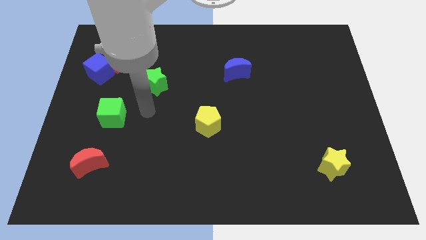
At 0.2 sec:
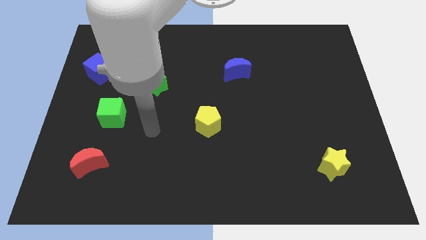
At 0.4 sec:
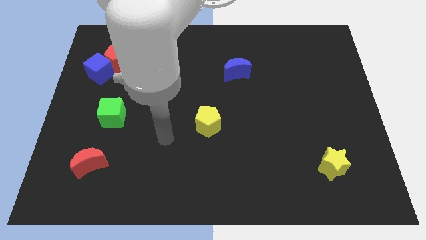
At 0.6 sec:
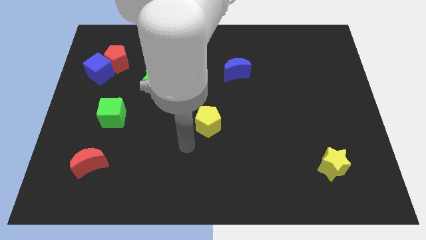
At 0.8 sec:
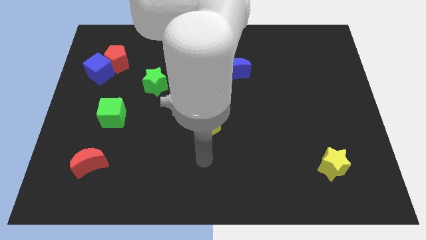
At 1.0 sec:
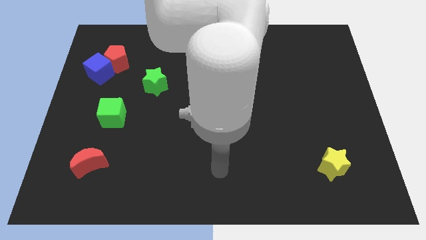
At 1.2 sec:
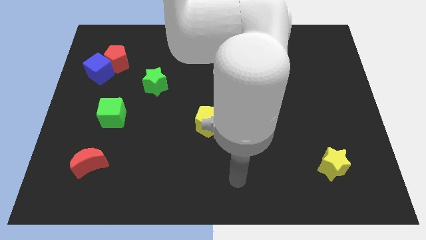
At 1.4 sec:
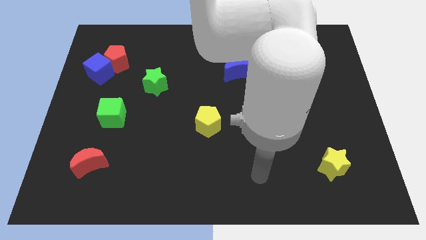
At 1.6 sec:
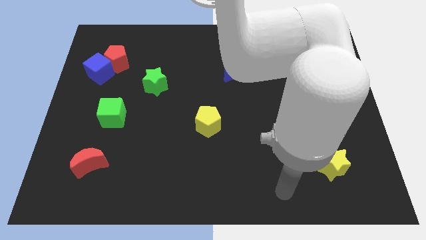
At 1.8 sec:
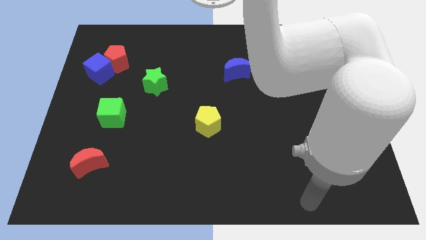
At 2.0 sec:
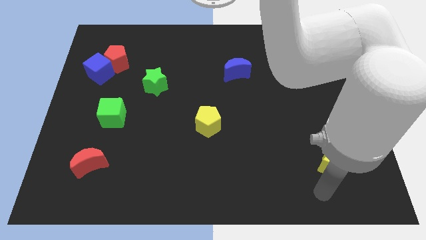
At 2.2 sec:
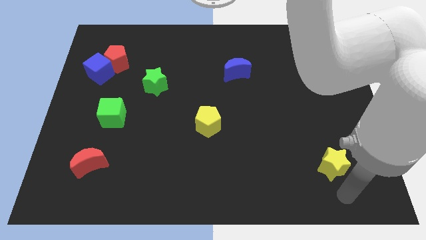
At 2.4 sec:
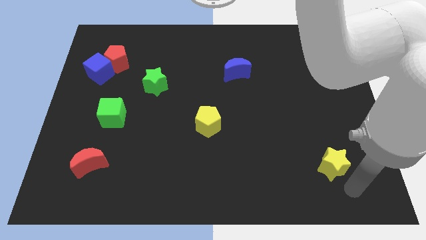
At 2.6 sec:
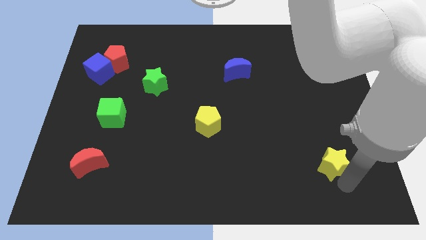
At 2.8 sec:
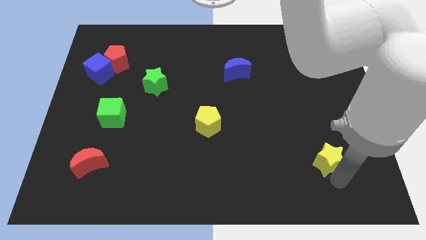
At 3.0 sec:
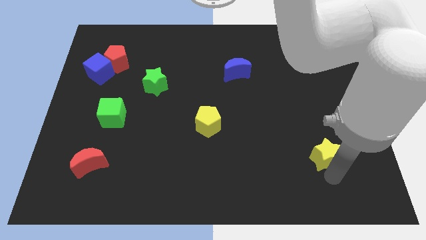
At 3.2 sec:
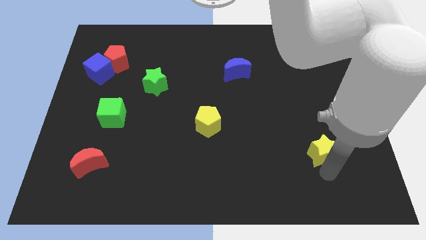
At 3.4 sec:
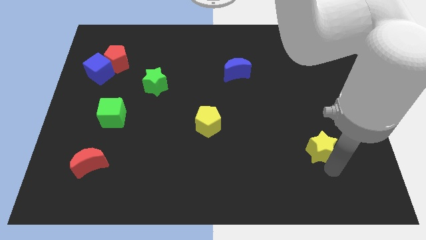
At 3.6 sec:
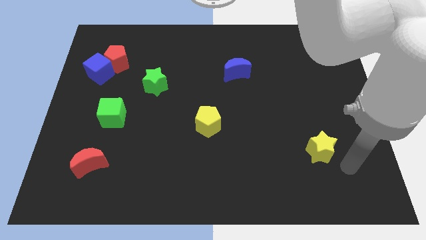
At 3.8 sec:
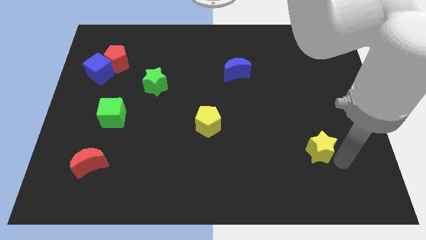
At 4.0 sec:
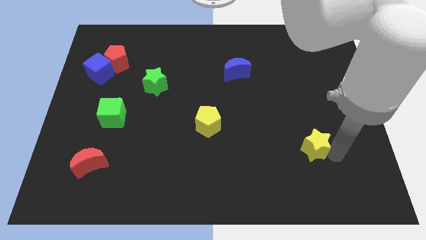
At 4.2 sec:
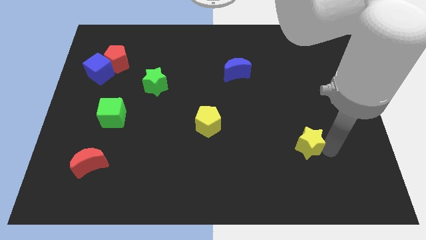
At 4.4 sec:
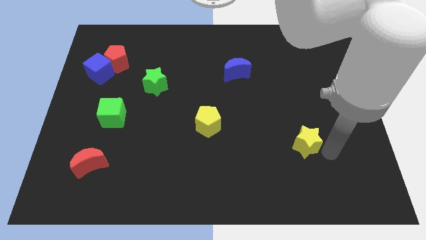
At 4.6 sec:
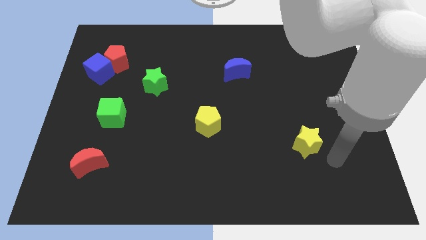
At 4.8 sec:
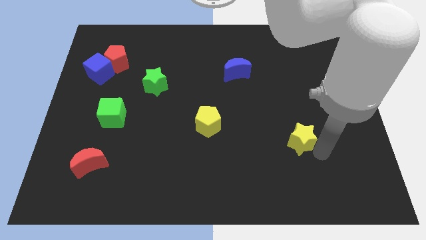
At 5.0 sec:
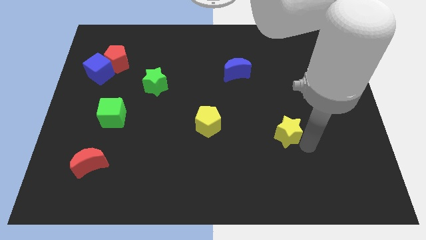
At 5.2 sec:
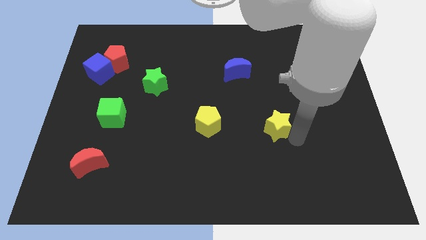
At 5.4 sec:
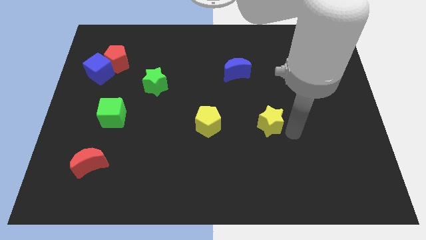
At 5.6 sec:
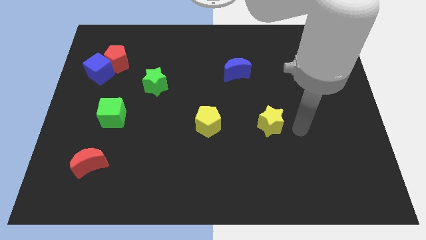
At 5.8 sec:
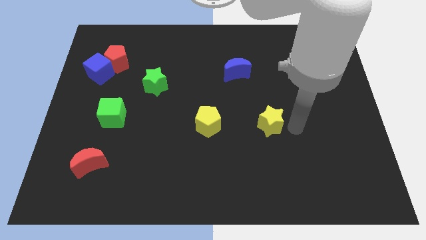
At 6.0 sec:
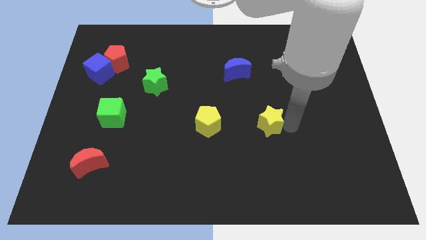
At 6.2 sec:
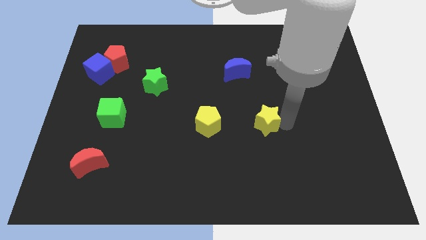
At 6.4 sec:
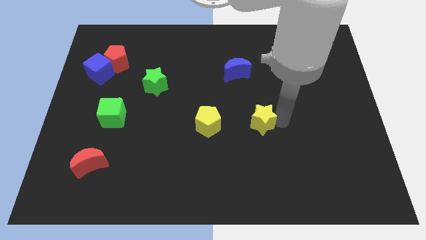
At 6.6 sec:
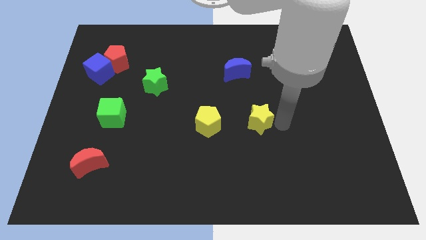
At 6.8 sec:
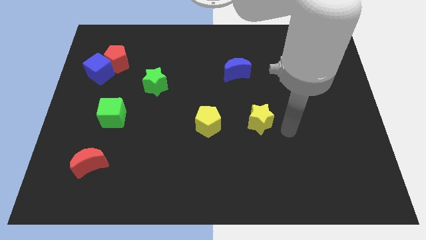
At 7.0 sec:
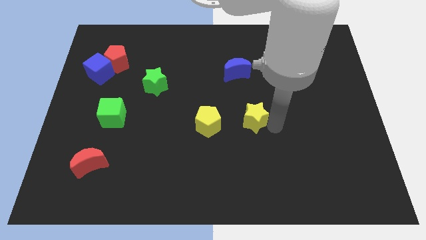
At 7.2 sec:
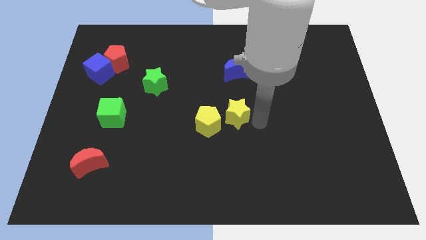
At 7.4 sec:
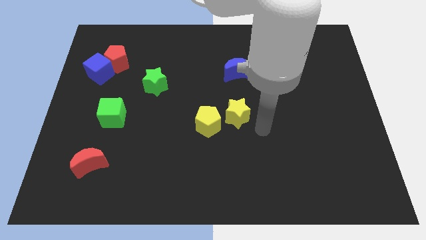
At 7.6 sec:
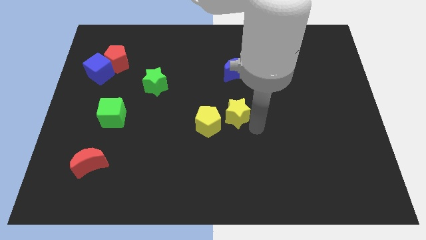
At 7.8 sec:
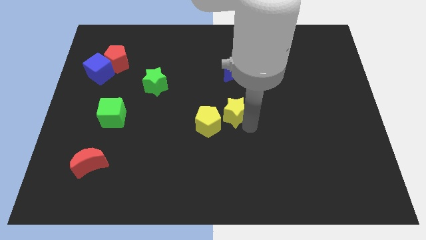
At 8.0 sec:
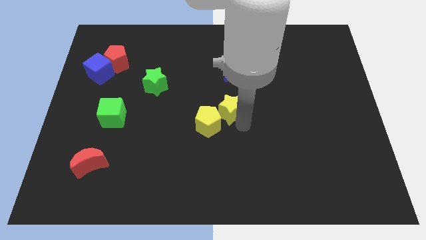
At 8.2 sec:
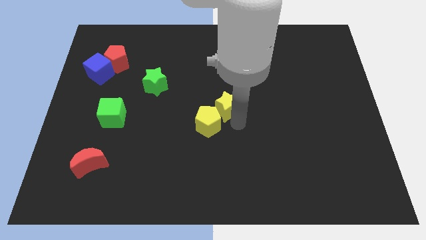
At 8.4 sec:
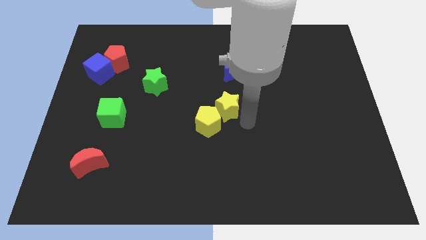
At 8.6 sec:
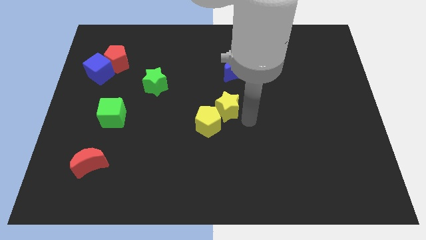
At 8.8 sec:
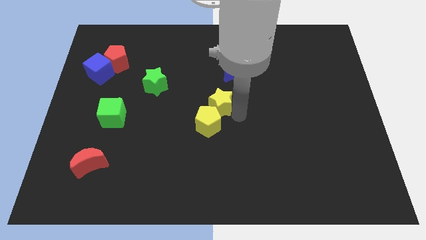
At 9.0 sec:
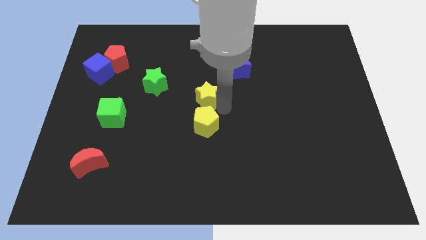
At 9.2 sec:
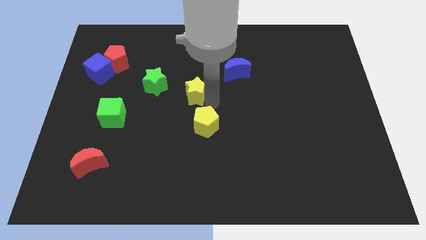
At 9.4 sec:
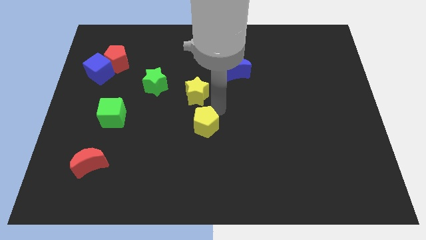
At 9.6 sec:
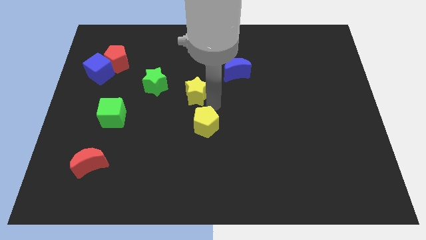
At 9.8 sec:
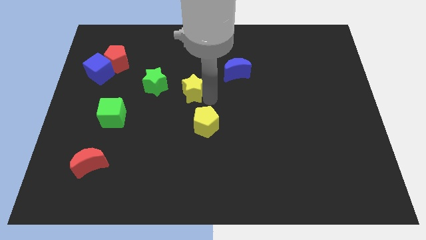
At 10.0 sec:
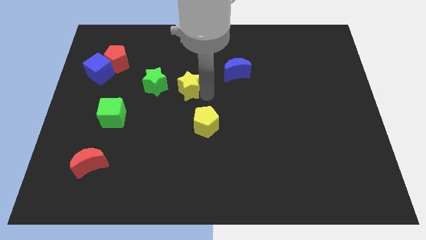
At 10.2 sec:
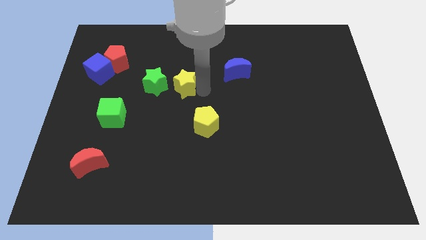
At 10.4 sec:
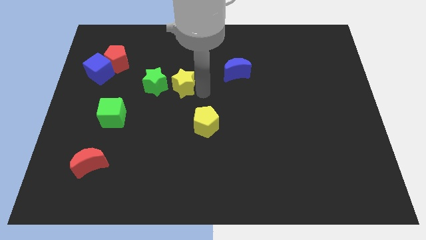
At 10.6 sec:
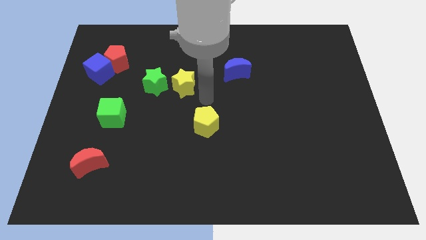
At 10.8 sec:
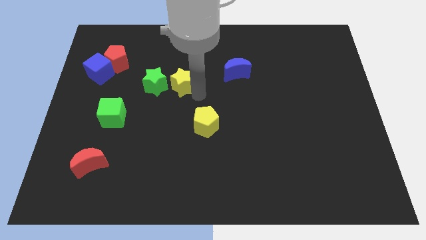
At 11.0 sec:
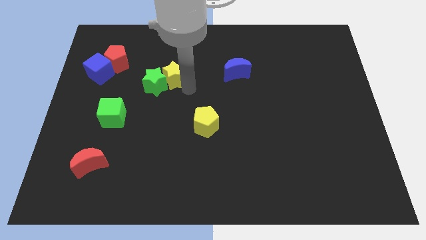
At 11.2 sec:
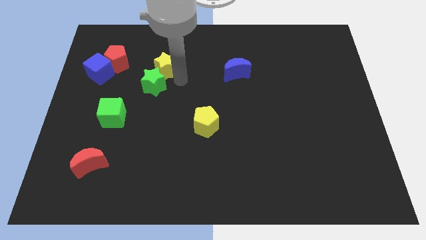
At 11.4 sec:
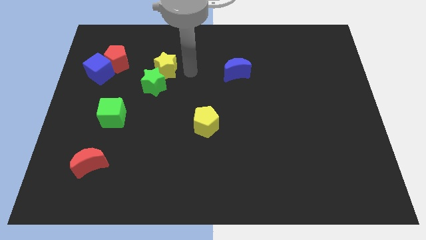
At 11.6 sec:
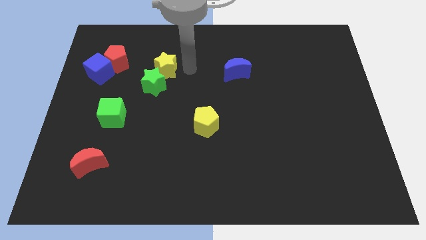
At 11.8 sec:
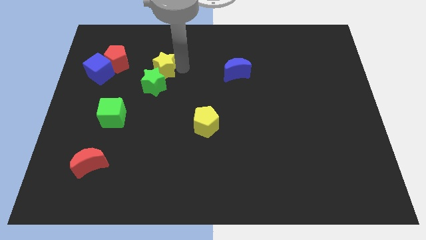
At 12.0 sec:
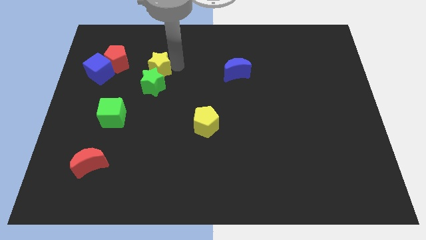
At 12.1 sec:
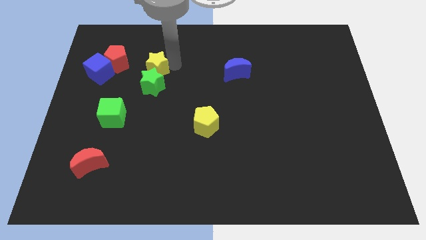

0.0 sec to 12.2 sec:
slide the yellow star diagonally up and to the left of the green star
